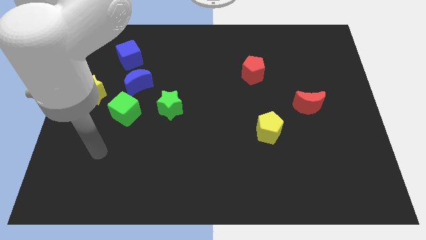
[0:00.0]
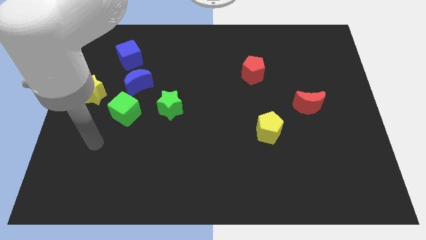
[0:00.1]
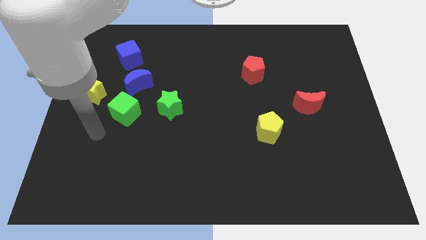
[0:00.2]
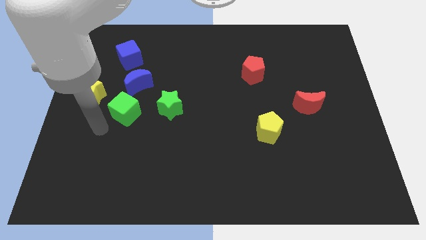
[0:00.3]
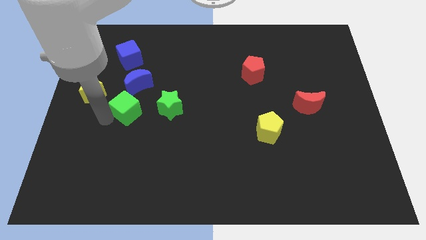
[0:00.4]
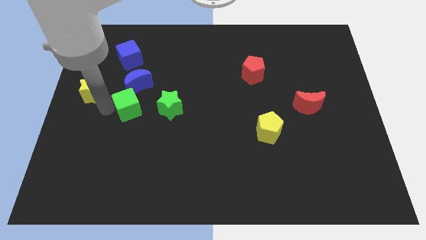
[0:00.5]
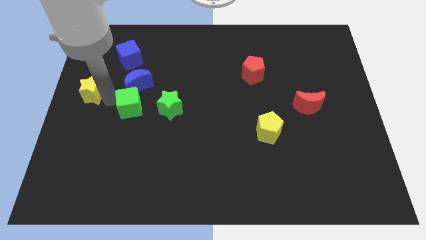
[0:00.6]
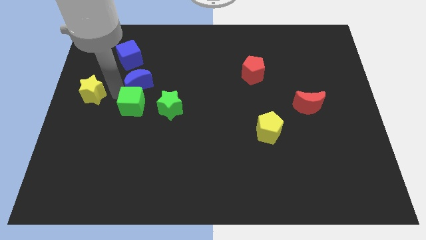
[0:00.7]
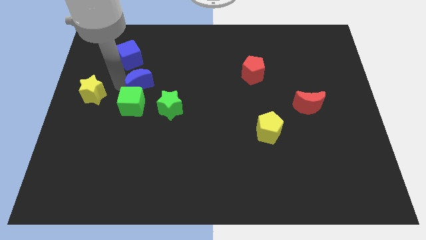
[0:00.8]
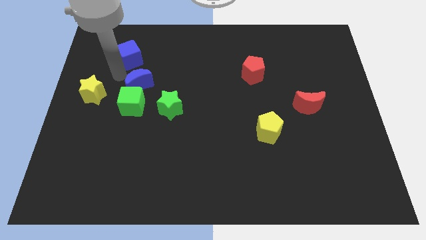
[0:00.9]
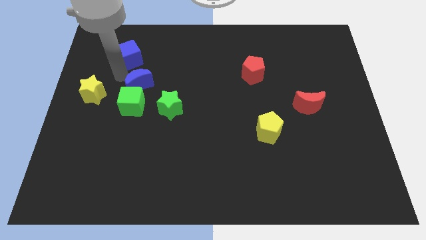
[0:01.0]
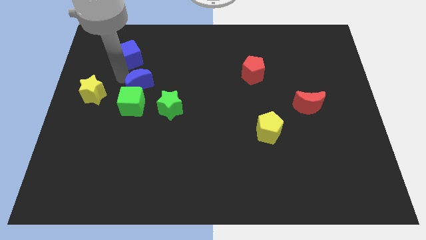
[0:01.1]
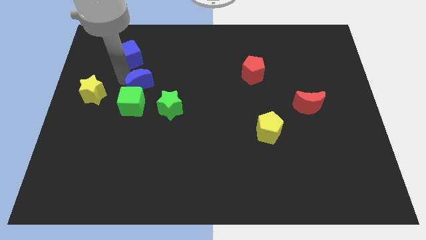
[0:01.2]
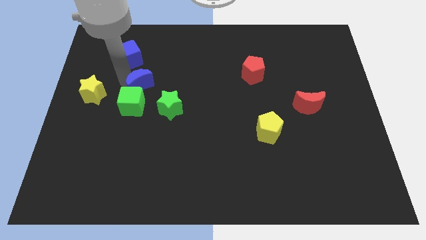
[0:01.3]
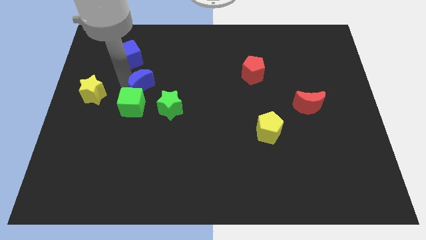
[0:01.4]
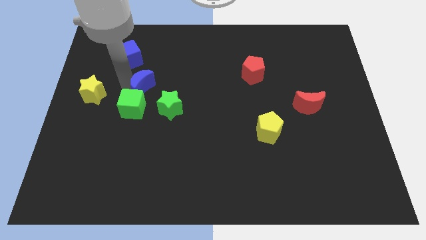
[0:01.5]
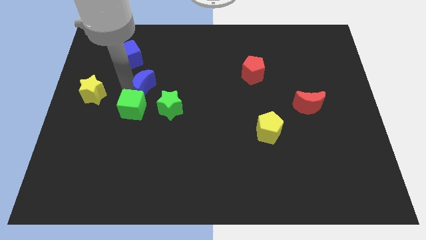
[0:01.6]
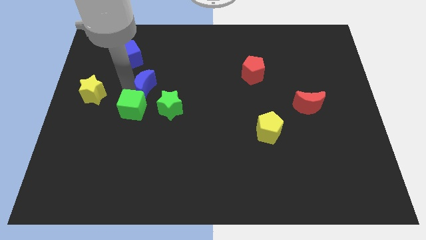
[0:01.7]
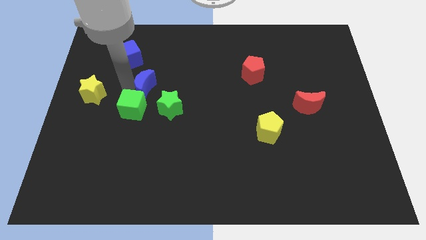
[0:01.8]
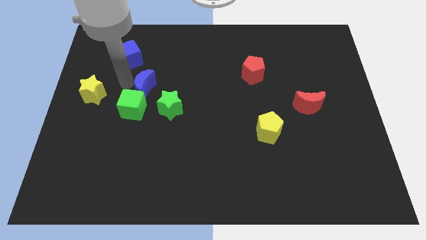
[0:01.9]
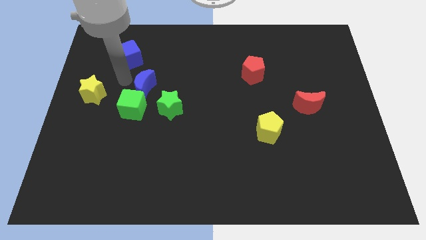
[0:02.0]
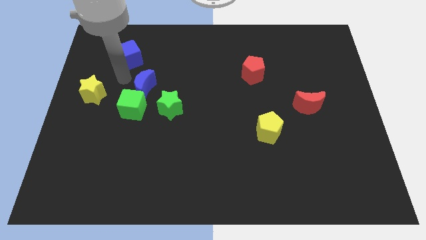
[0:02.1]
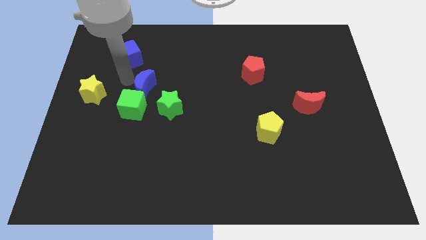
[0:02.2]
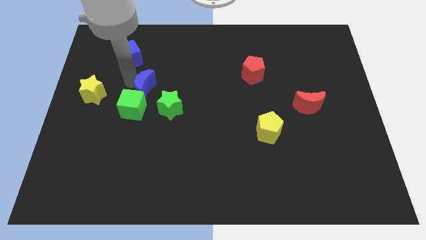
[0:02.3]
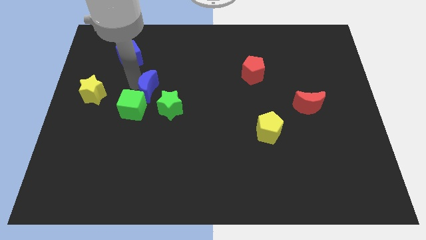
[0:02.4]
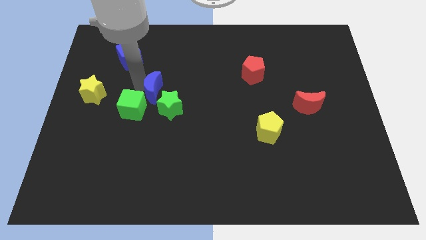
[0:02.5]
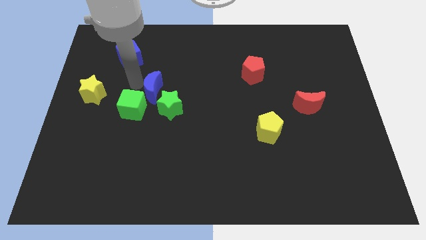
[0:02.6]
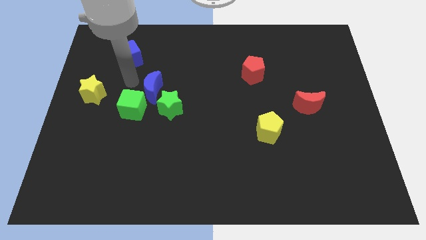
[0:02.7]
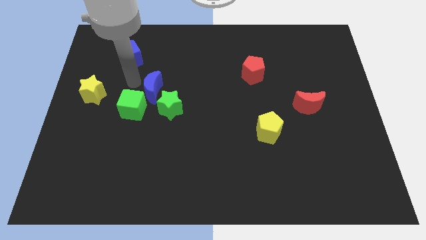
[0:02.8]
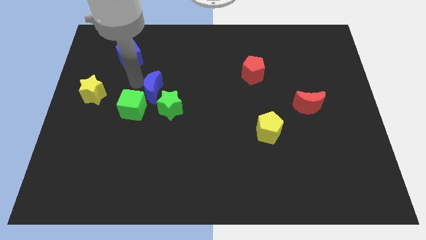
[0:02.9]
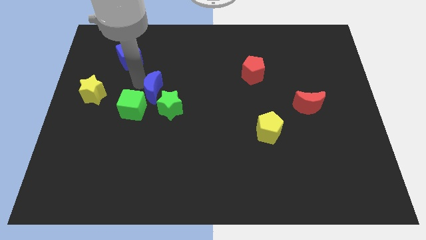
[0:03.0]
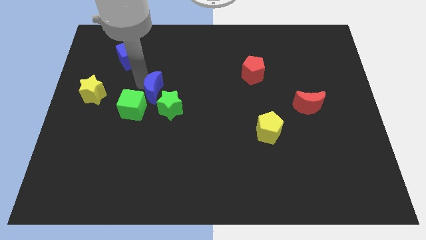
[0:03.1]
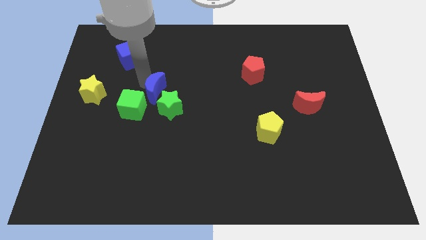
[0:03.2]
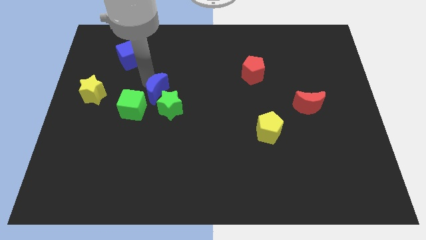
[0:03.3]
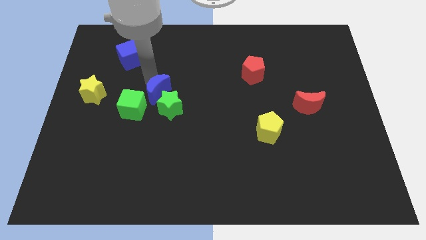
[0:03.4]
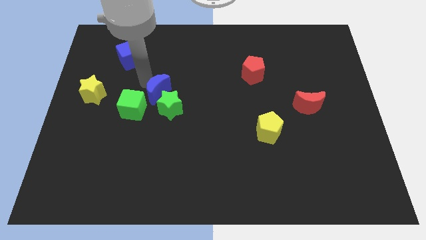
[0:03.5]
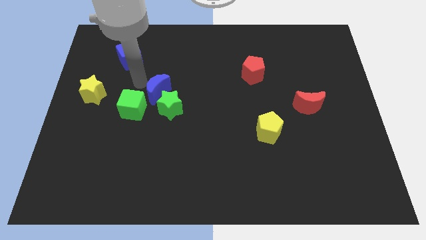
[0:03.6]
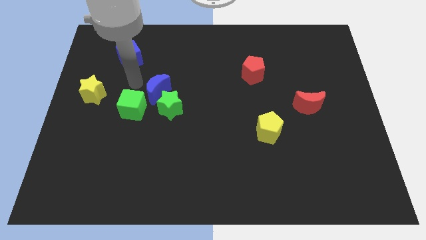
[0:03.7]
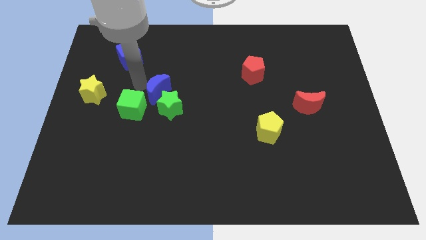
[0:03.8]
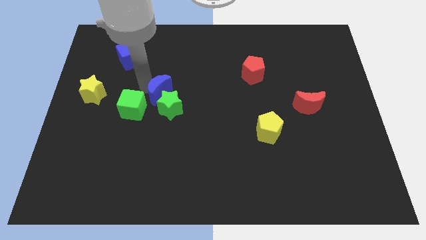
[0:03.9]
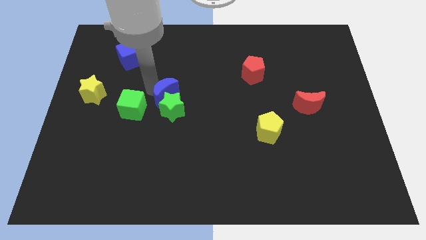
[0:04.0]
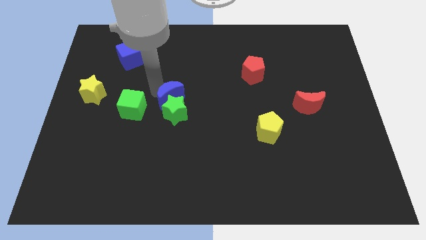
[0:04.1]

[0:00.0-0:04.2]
separate the blue moon from the green cube and blue cube

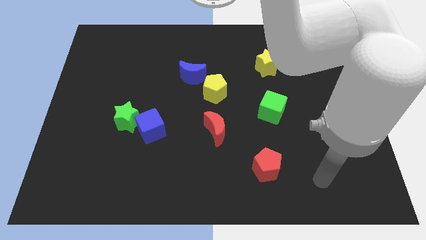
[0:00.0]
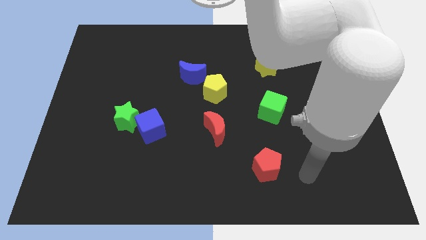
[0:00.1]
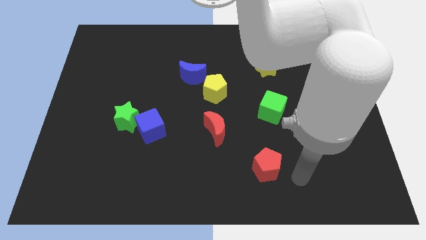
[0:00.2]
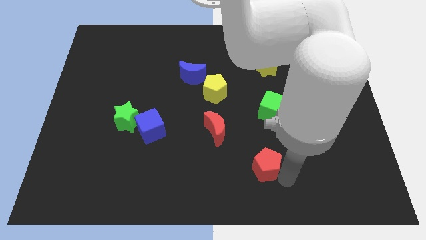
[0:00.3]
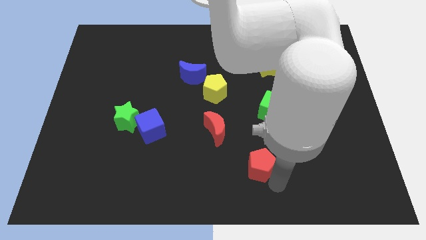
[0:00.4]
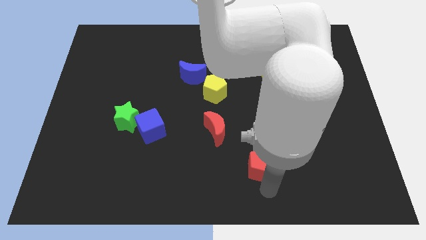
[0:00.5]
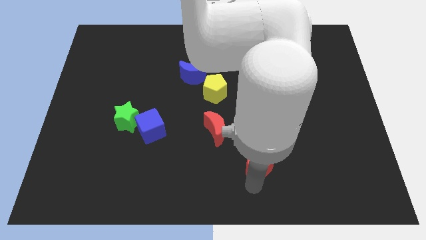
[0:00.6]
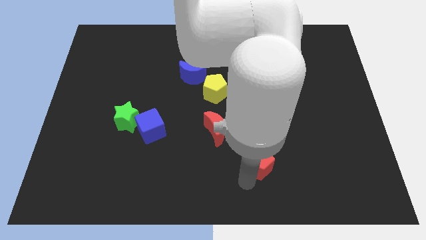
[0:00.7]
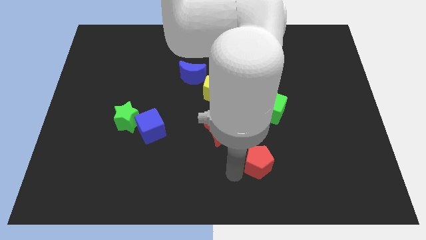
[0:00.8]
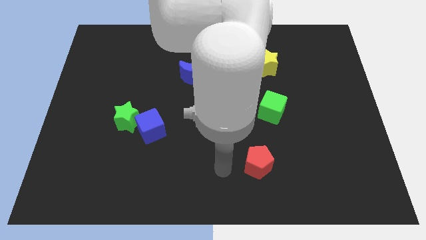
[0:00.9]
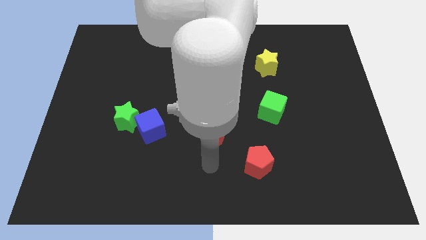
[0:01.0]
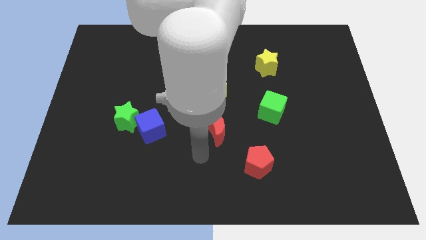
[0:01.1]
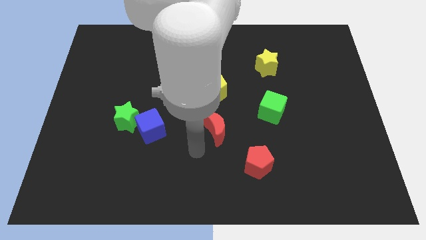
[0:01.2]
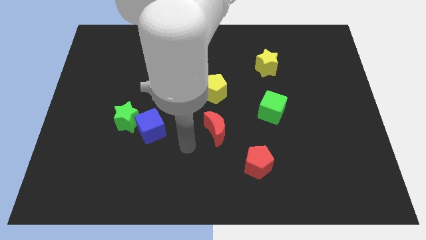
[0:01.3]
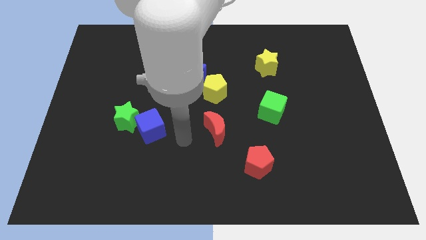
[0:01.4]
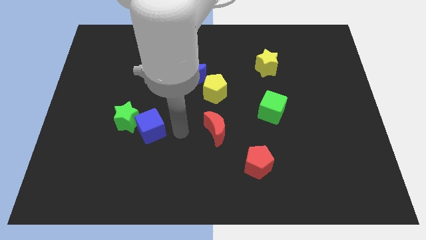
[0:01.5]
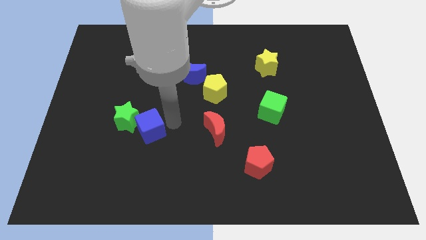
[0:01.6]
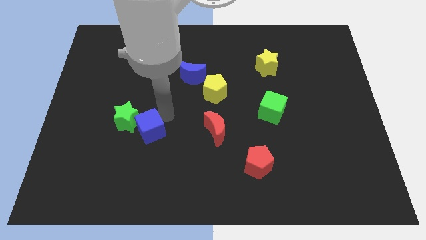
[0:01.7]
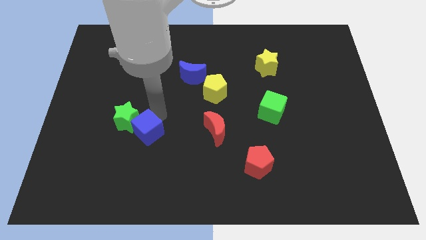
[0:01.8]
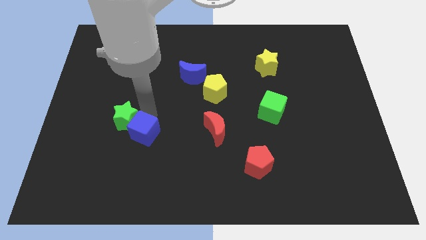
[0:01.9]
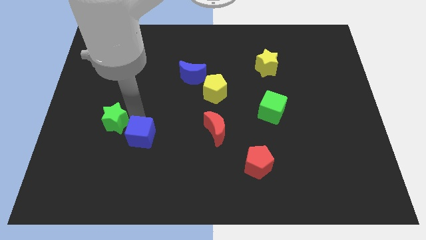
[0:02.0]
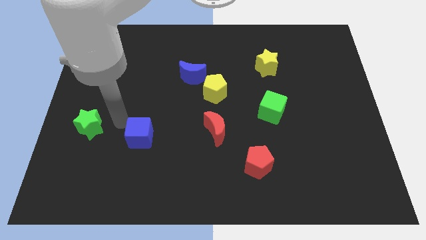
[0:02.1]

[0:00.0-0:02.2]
pull the blue cube apart from the green star

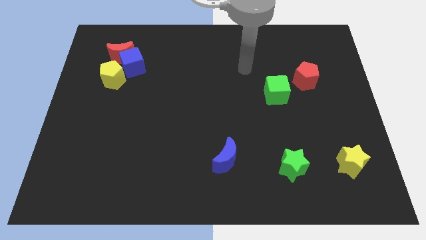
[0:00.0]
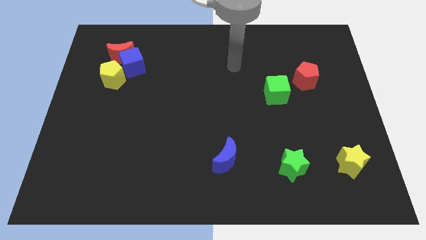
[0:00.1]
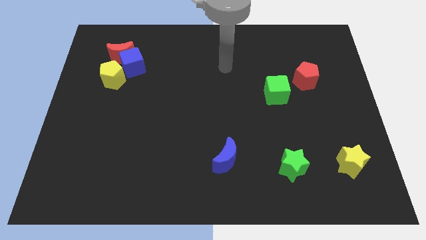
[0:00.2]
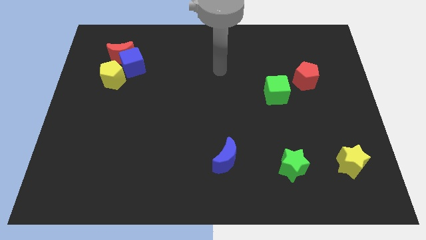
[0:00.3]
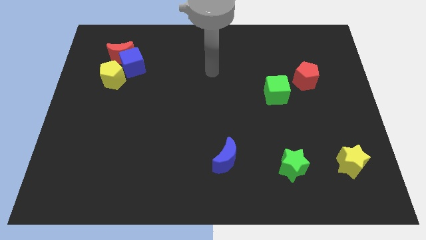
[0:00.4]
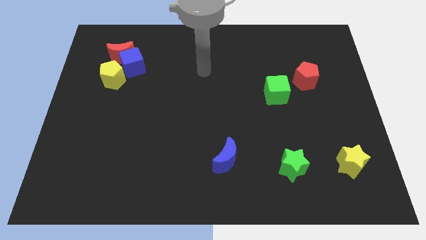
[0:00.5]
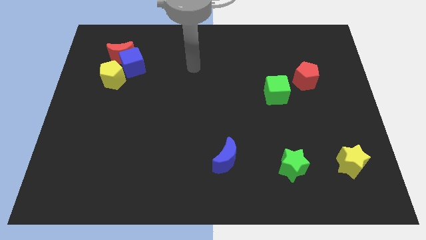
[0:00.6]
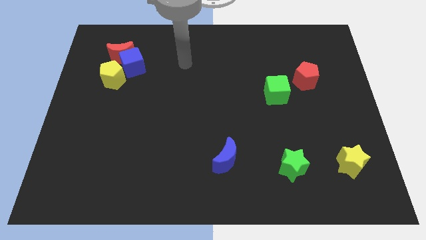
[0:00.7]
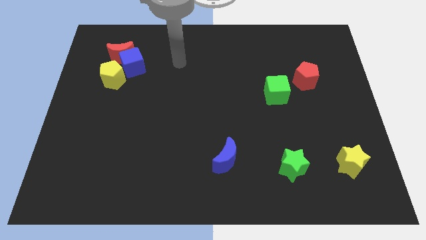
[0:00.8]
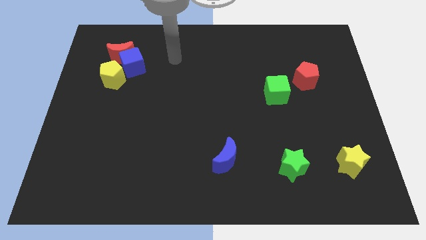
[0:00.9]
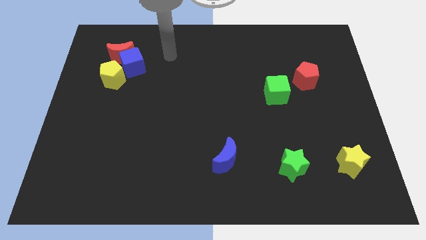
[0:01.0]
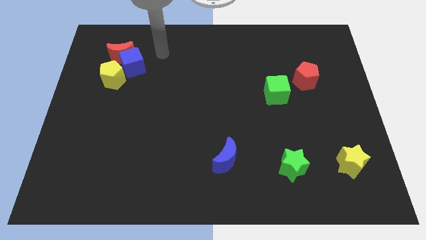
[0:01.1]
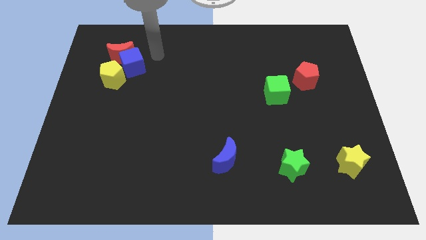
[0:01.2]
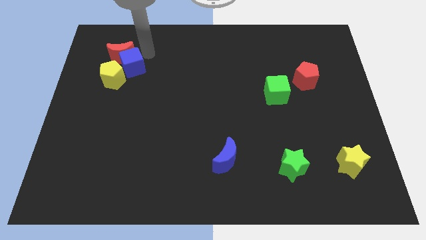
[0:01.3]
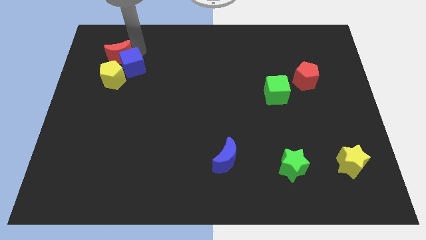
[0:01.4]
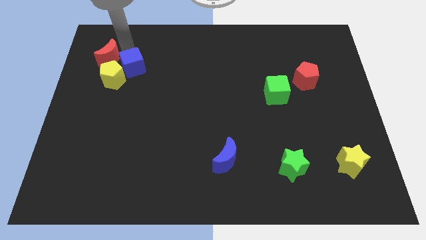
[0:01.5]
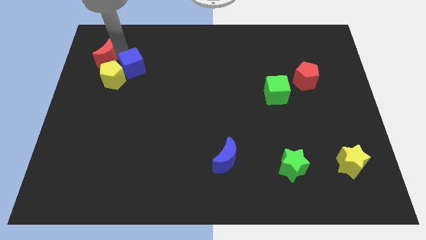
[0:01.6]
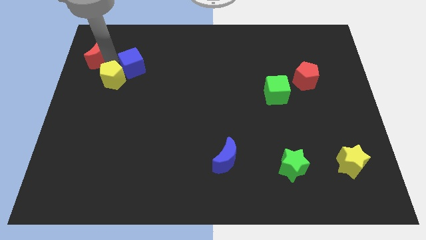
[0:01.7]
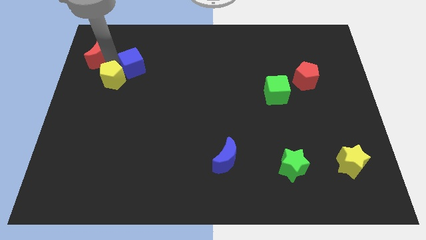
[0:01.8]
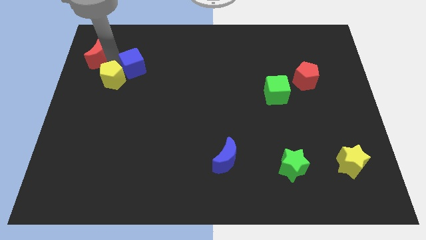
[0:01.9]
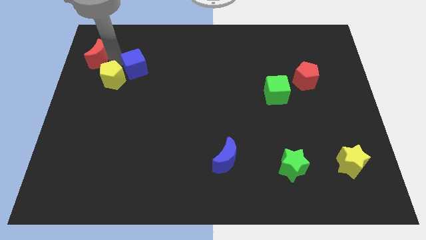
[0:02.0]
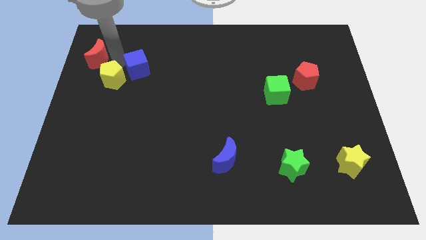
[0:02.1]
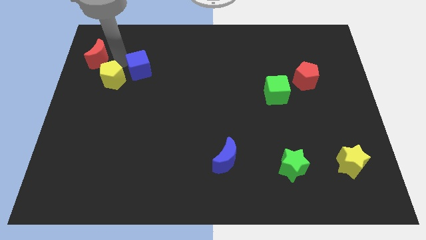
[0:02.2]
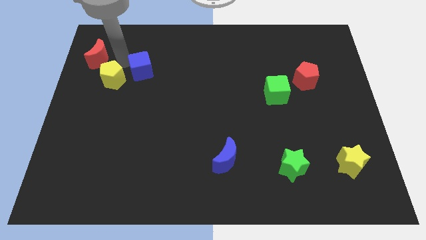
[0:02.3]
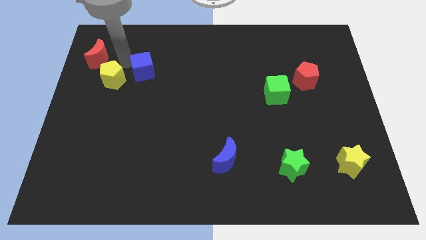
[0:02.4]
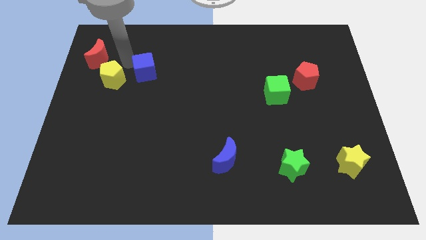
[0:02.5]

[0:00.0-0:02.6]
separate the blue cube from the red moon and yellow pentagon

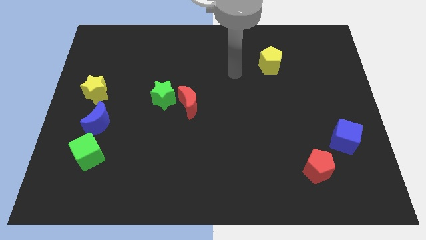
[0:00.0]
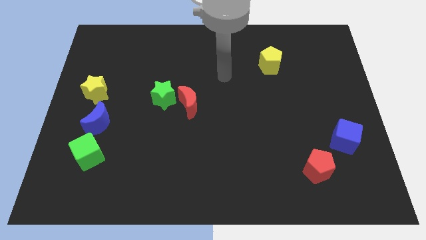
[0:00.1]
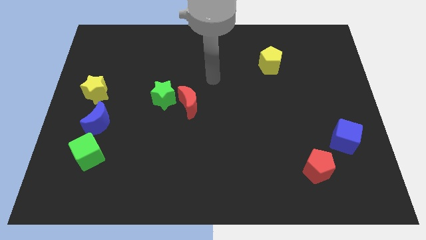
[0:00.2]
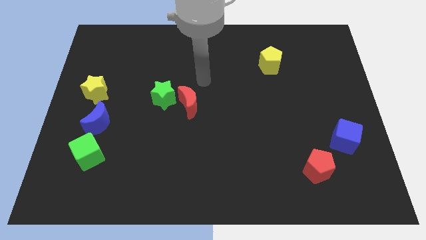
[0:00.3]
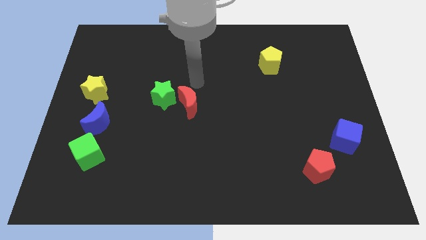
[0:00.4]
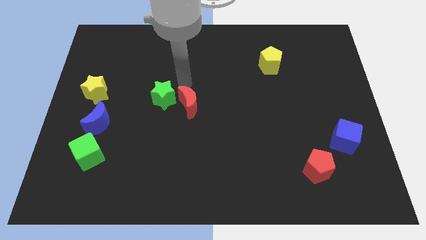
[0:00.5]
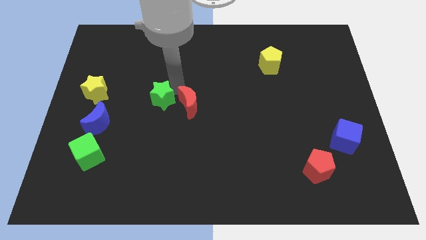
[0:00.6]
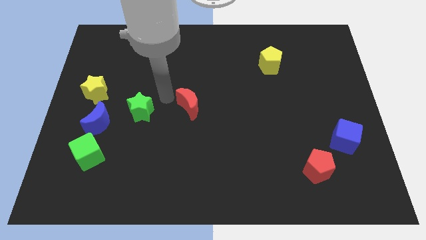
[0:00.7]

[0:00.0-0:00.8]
move the red moon away from the green star
